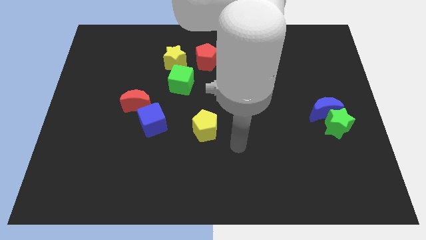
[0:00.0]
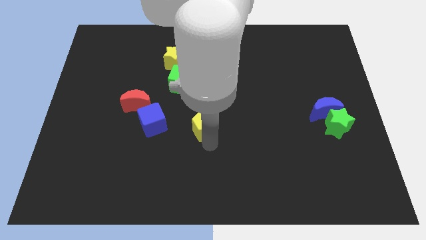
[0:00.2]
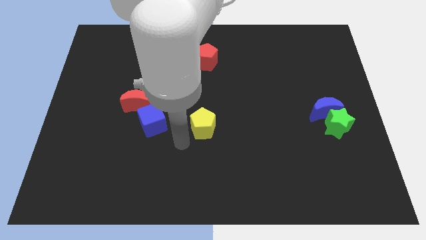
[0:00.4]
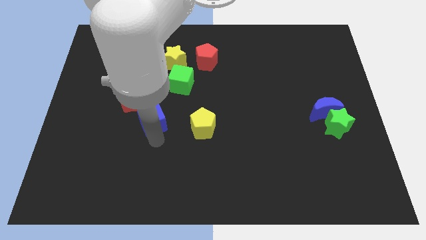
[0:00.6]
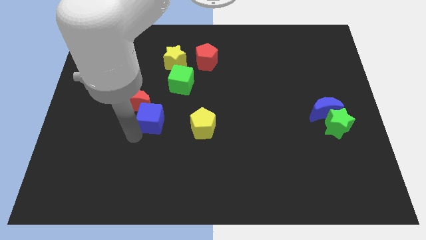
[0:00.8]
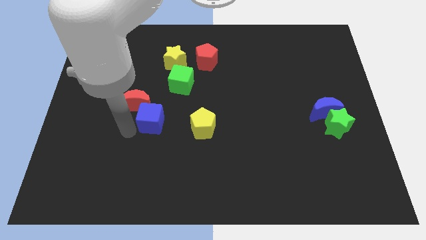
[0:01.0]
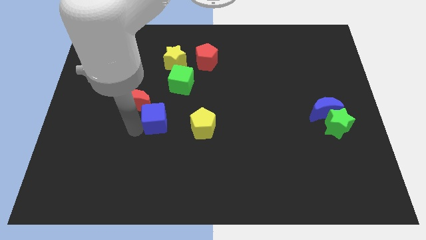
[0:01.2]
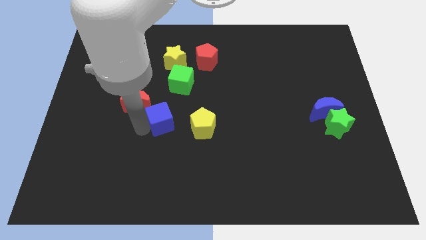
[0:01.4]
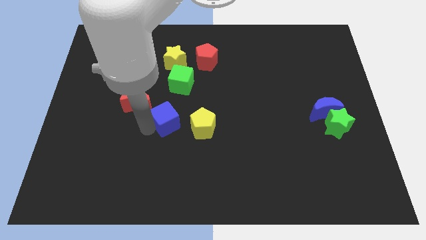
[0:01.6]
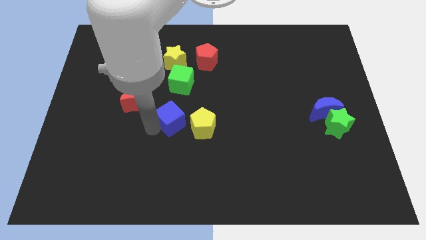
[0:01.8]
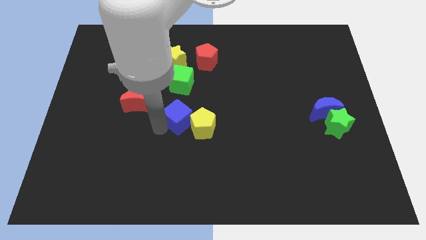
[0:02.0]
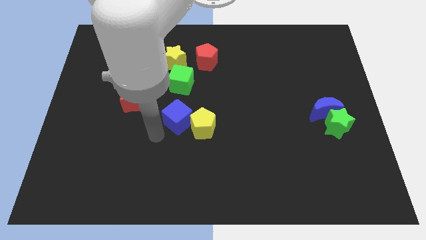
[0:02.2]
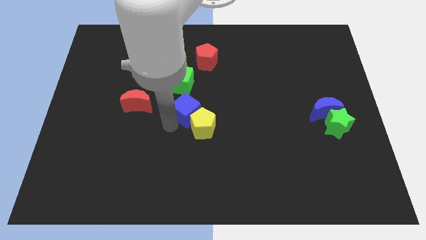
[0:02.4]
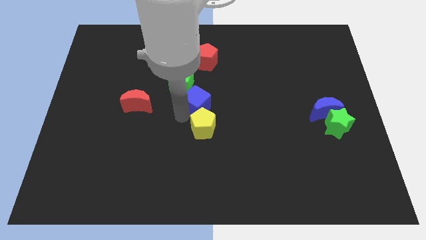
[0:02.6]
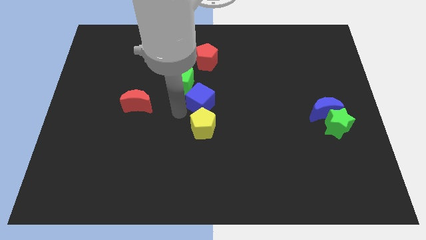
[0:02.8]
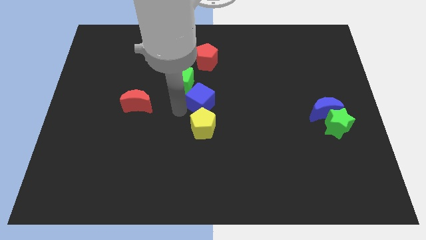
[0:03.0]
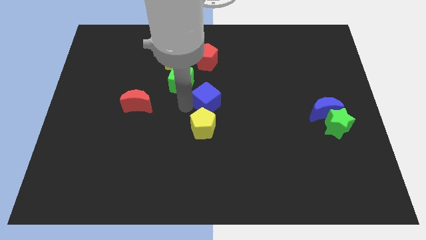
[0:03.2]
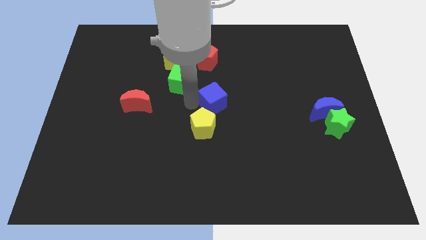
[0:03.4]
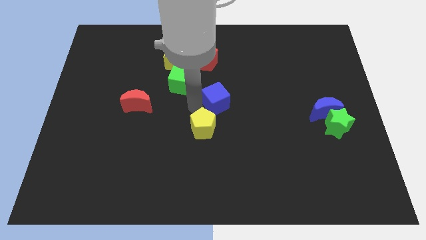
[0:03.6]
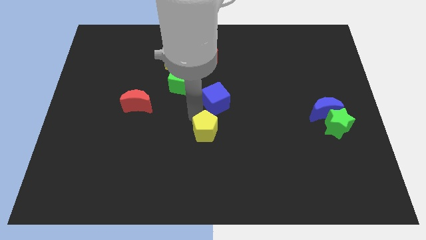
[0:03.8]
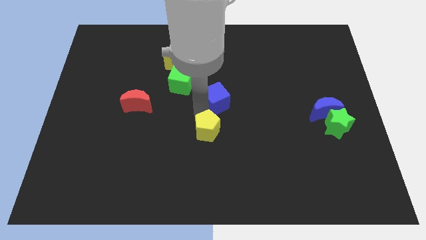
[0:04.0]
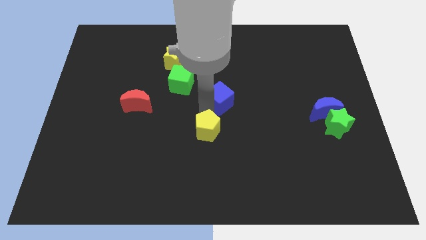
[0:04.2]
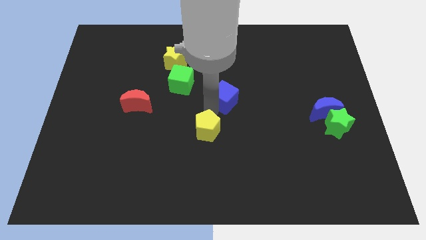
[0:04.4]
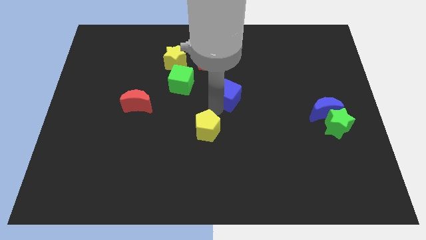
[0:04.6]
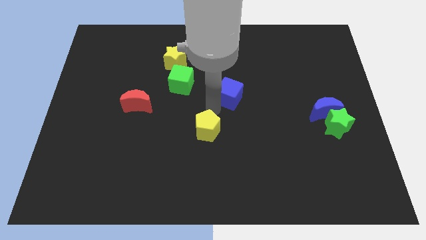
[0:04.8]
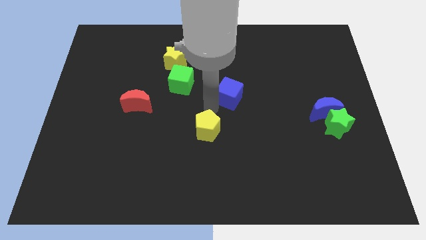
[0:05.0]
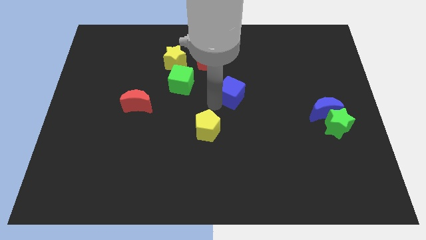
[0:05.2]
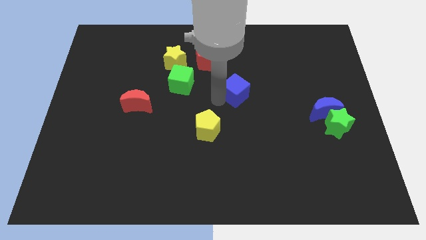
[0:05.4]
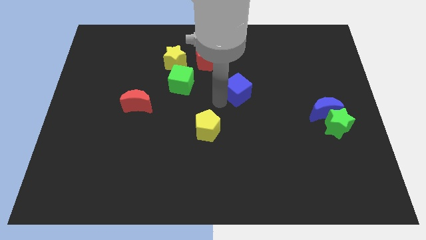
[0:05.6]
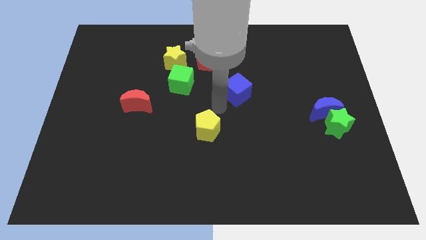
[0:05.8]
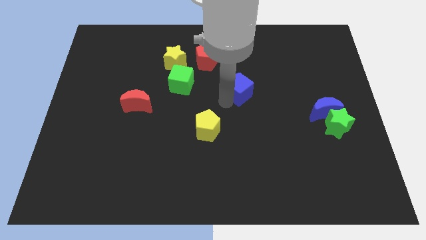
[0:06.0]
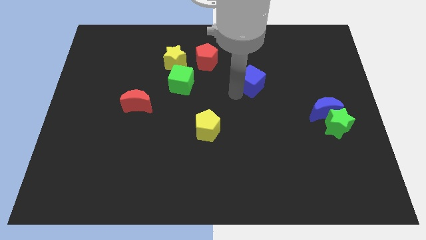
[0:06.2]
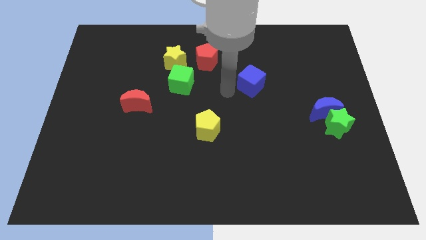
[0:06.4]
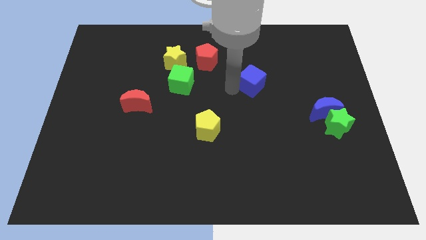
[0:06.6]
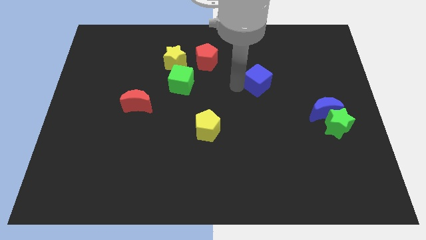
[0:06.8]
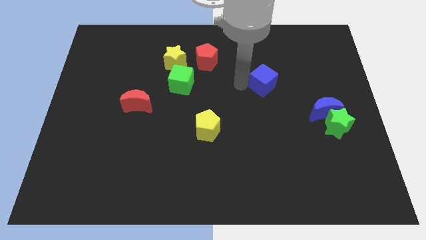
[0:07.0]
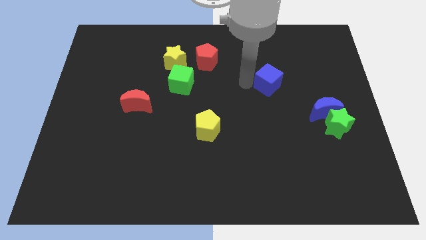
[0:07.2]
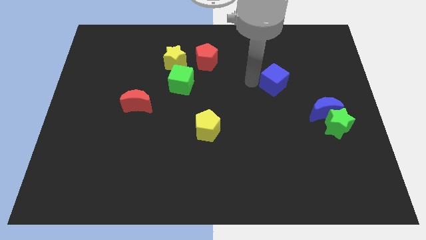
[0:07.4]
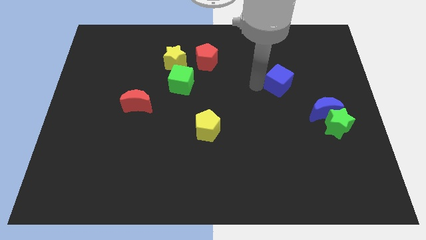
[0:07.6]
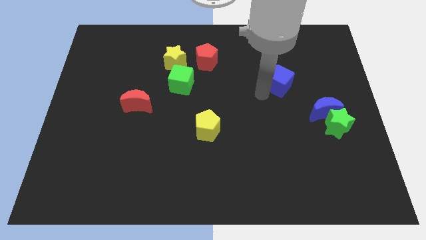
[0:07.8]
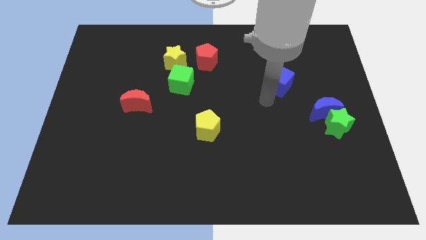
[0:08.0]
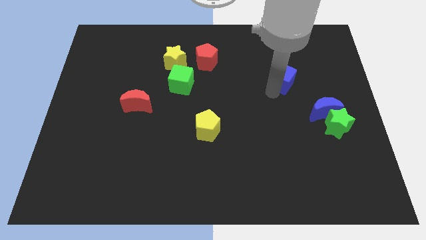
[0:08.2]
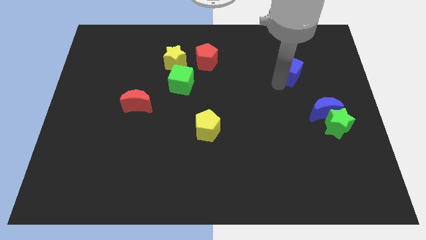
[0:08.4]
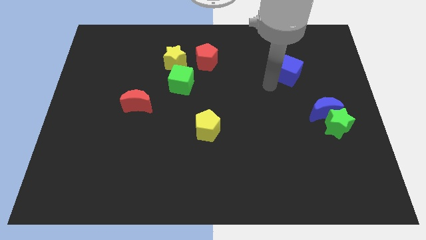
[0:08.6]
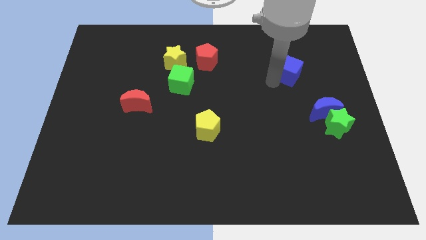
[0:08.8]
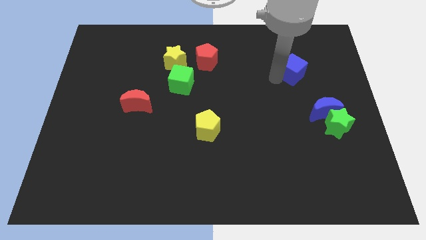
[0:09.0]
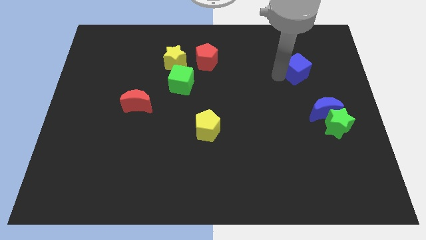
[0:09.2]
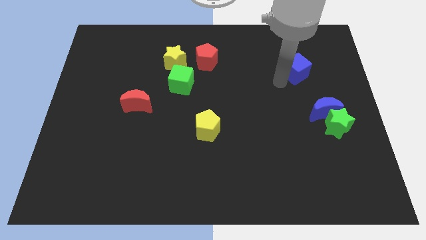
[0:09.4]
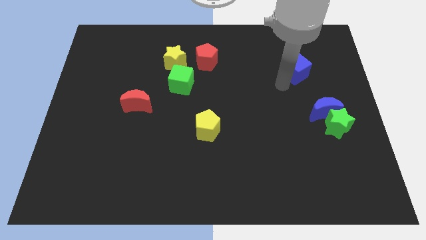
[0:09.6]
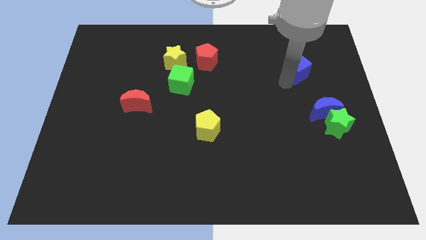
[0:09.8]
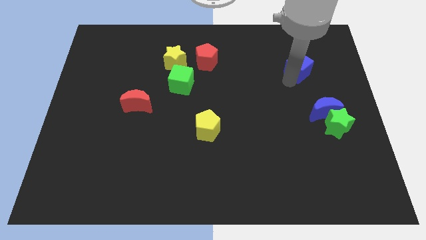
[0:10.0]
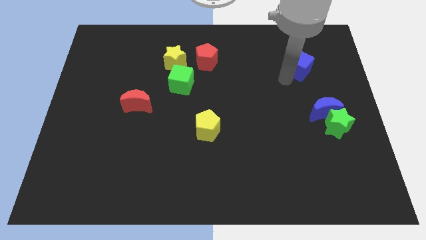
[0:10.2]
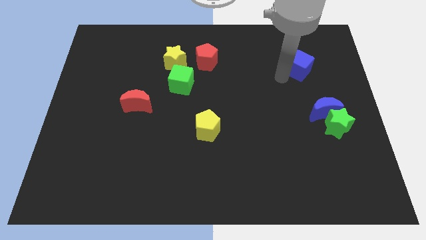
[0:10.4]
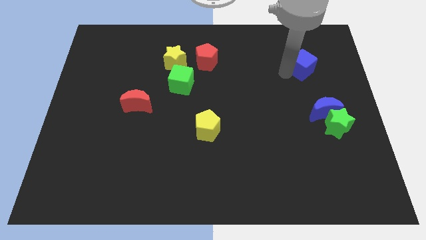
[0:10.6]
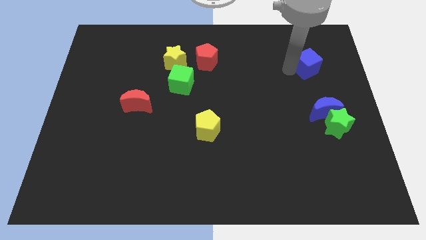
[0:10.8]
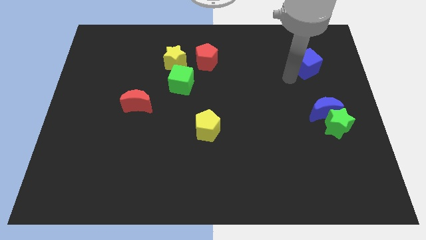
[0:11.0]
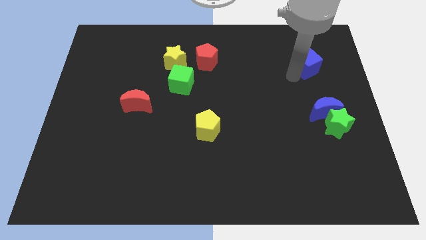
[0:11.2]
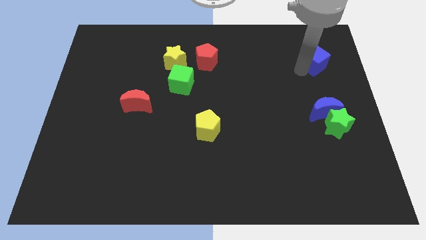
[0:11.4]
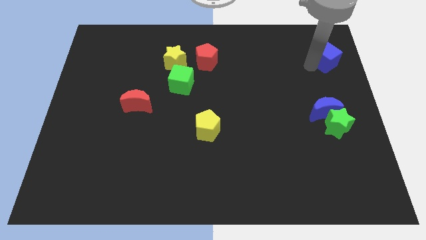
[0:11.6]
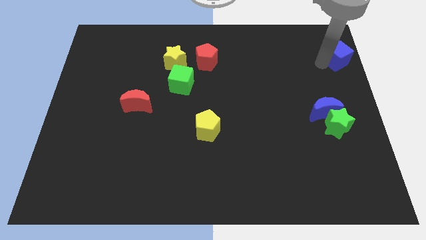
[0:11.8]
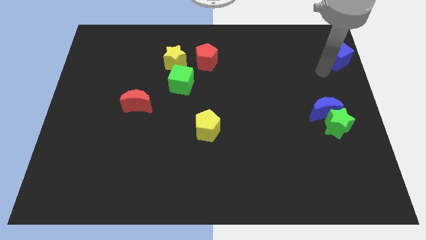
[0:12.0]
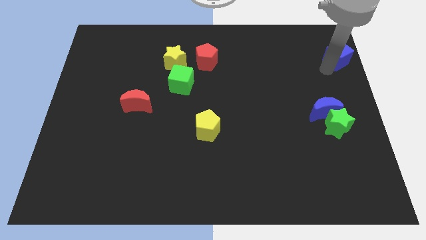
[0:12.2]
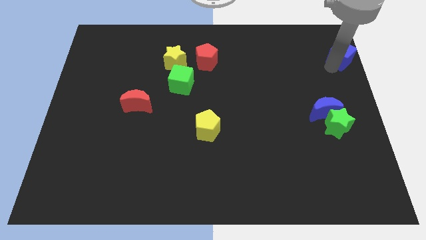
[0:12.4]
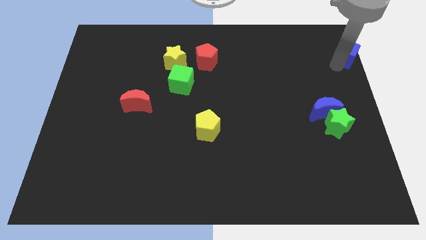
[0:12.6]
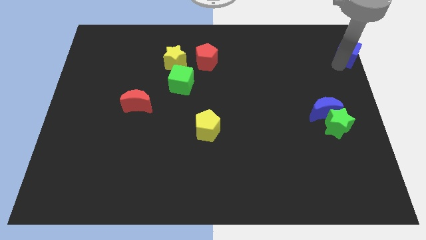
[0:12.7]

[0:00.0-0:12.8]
put the blue cube to the upper right corner

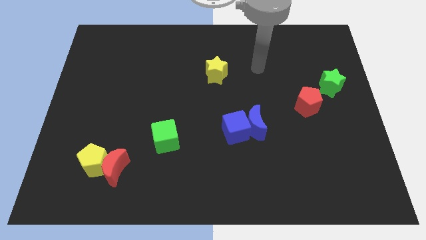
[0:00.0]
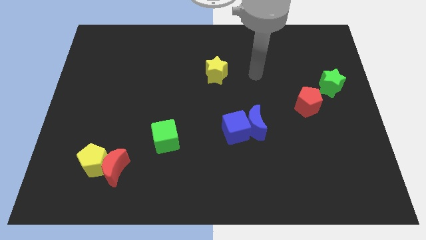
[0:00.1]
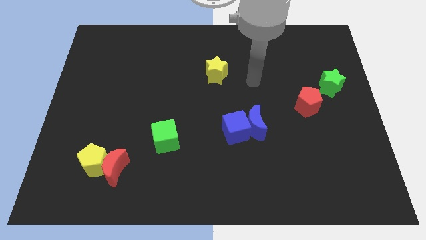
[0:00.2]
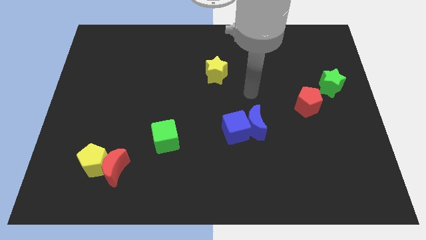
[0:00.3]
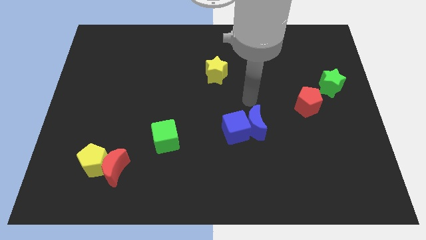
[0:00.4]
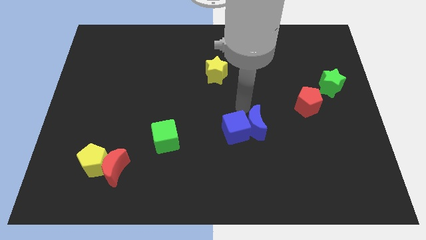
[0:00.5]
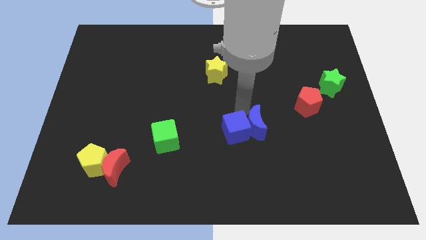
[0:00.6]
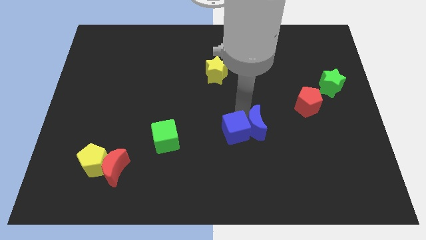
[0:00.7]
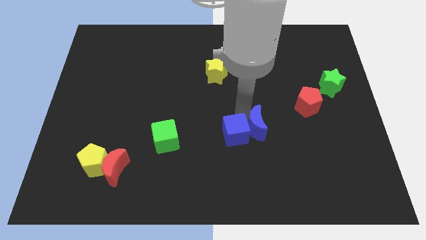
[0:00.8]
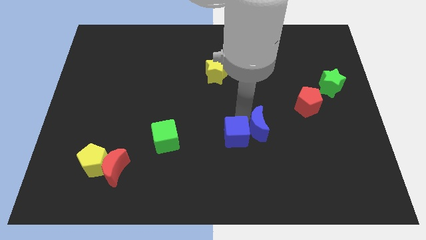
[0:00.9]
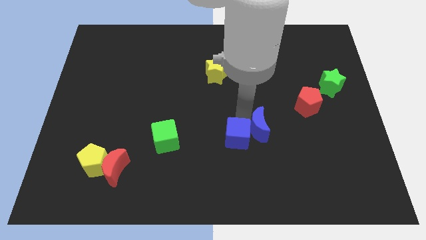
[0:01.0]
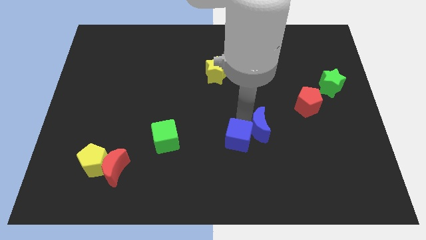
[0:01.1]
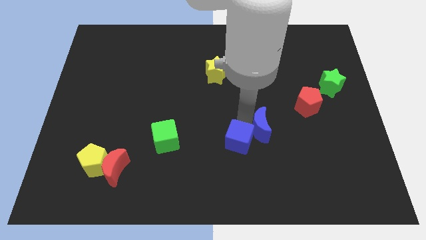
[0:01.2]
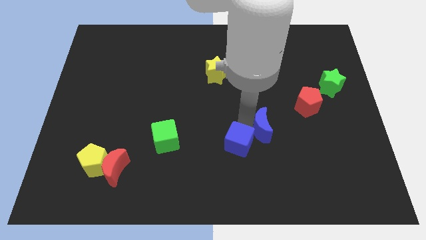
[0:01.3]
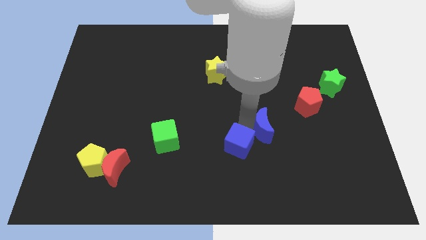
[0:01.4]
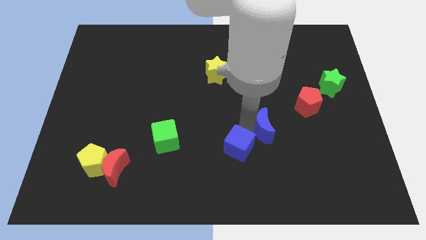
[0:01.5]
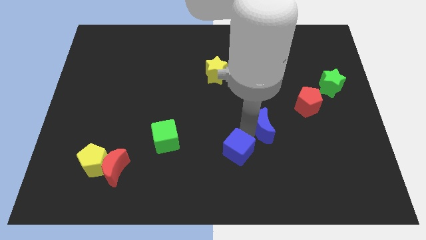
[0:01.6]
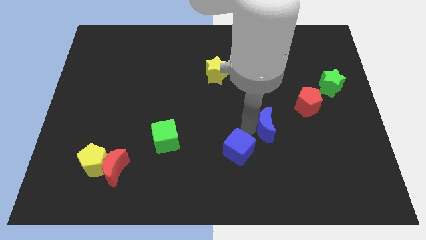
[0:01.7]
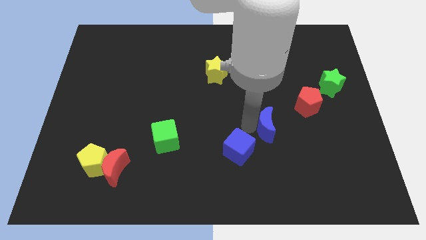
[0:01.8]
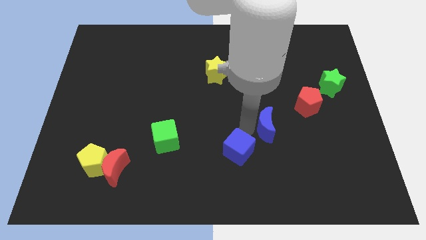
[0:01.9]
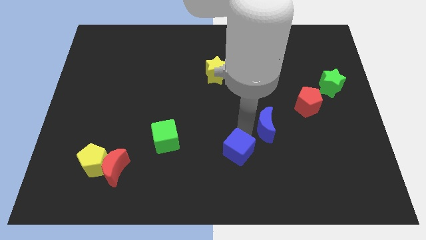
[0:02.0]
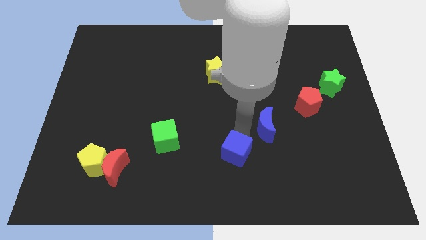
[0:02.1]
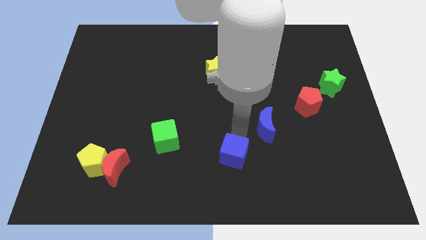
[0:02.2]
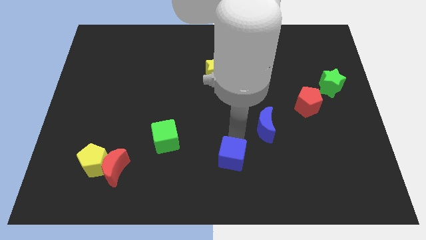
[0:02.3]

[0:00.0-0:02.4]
put the blue cube to the bottom
